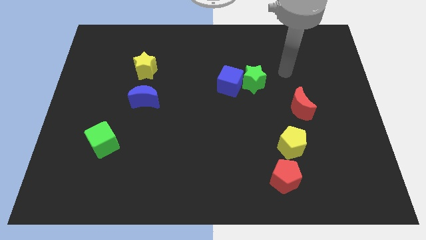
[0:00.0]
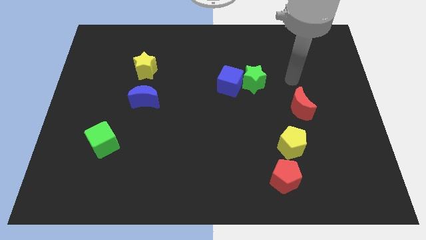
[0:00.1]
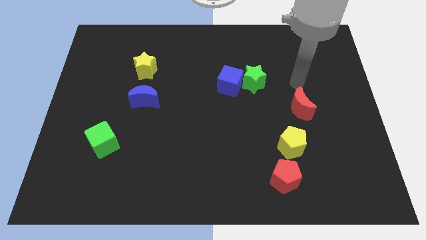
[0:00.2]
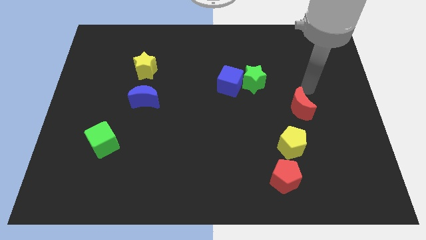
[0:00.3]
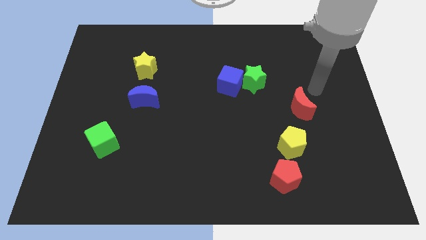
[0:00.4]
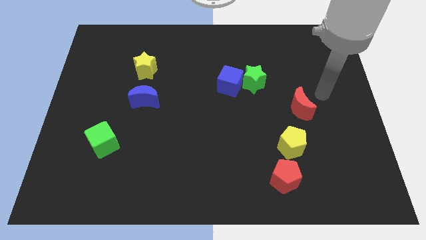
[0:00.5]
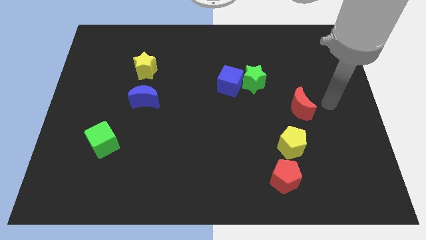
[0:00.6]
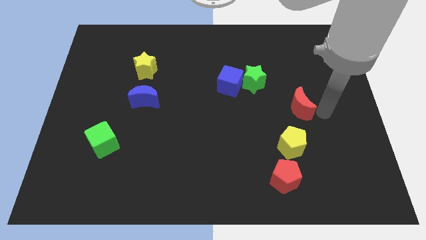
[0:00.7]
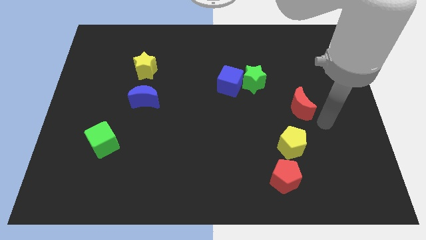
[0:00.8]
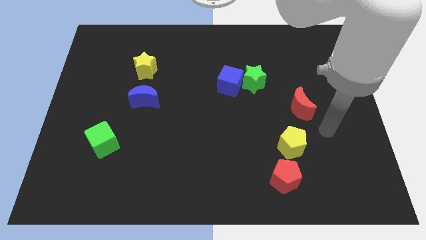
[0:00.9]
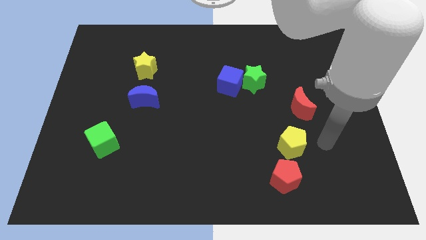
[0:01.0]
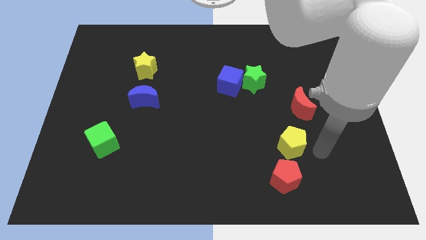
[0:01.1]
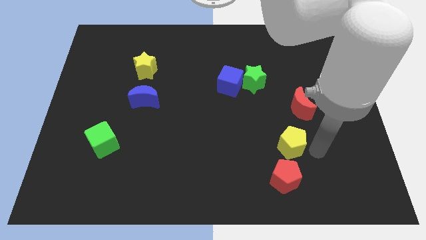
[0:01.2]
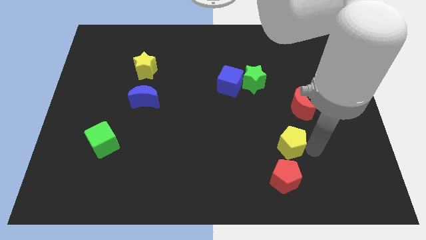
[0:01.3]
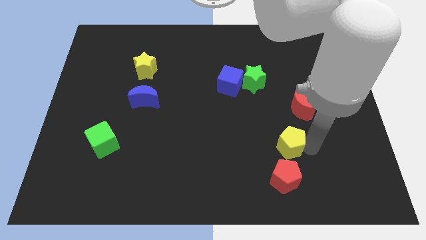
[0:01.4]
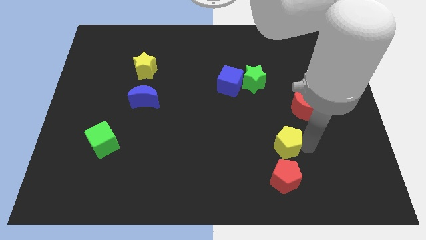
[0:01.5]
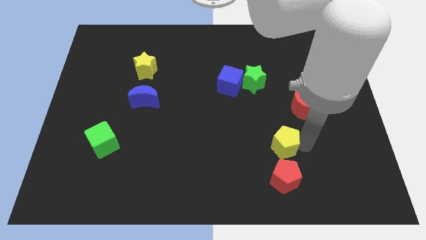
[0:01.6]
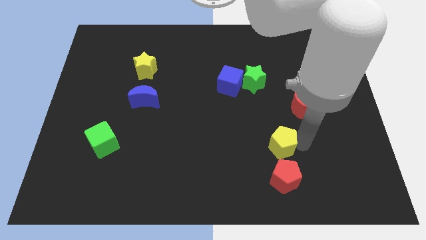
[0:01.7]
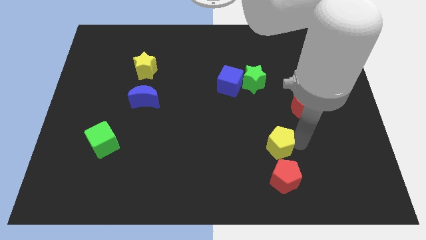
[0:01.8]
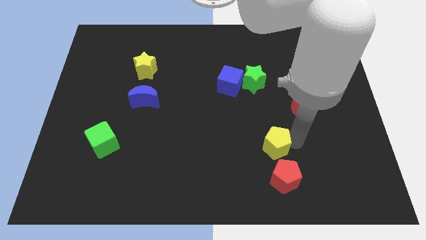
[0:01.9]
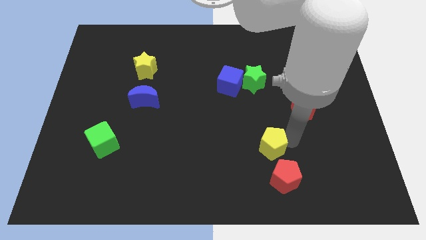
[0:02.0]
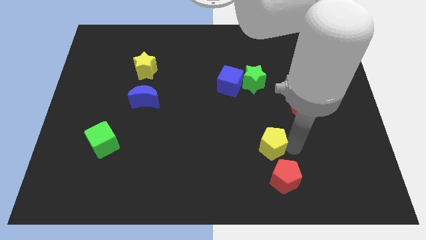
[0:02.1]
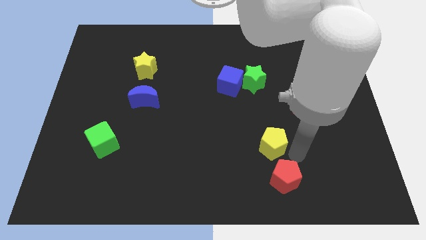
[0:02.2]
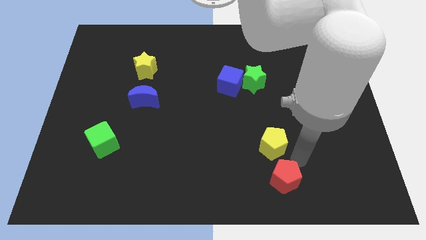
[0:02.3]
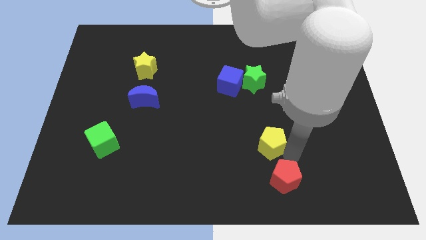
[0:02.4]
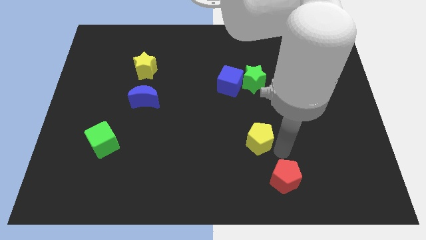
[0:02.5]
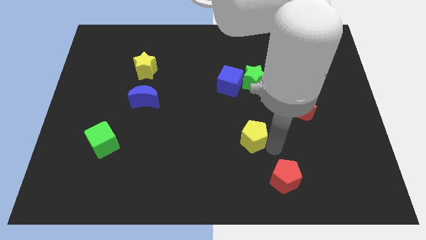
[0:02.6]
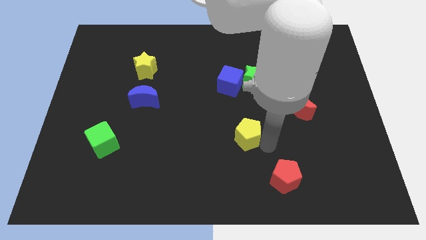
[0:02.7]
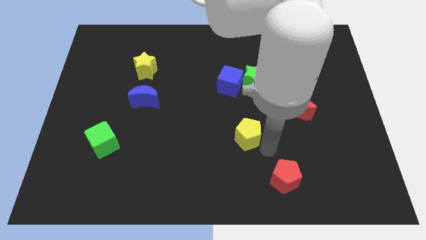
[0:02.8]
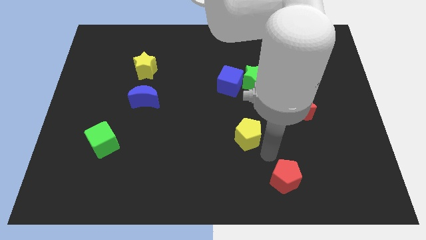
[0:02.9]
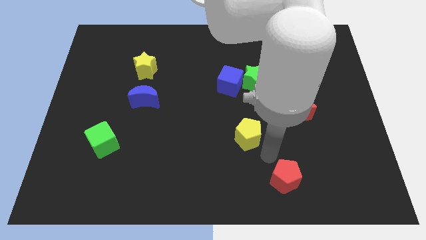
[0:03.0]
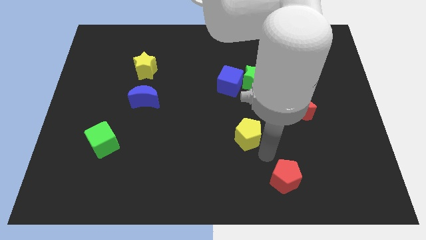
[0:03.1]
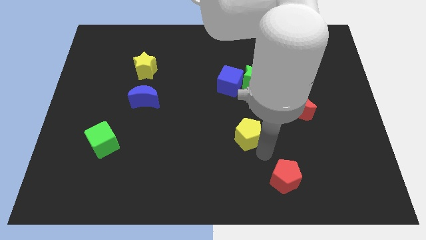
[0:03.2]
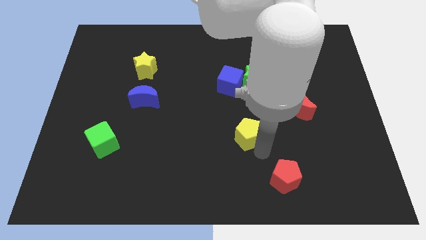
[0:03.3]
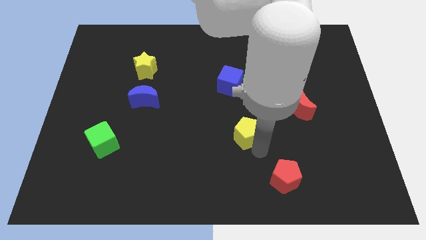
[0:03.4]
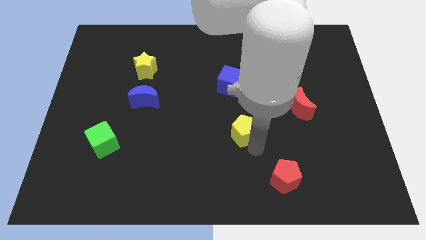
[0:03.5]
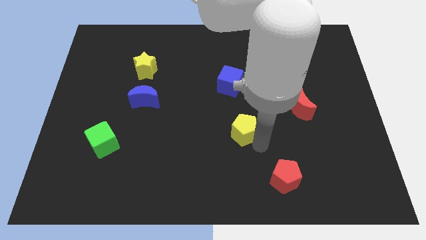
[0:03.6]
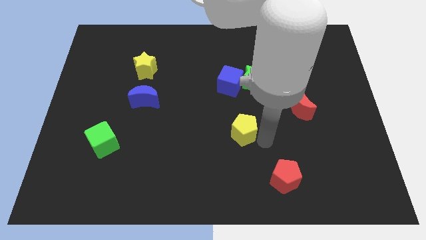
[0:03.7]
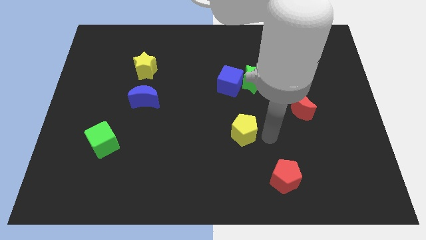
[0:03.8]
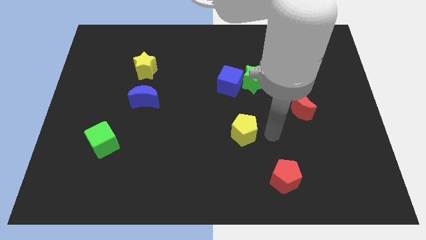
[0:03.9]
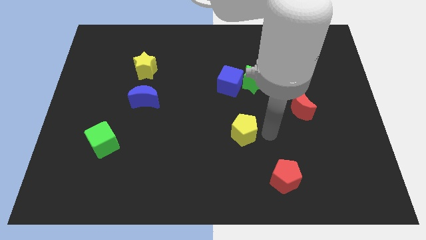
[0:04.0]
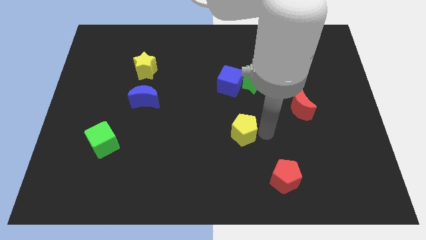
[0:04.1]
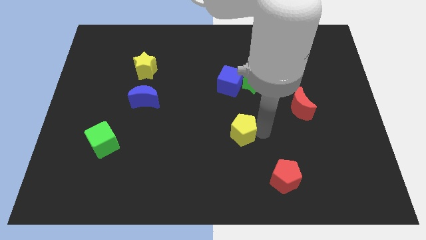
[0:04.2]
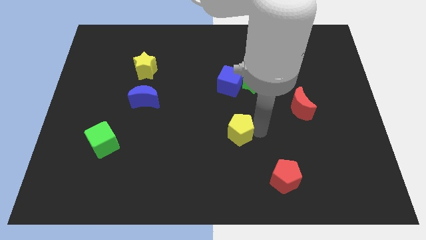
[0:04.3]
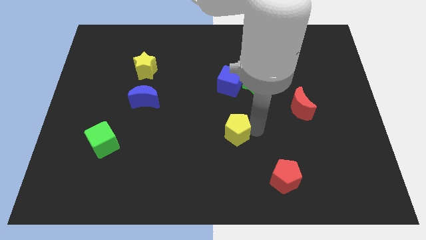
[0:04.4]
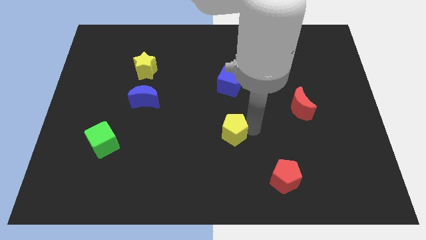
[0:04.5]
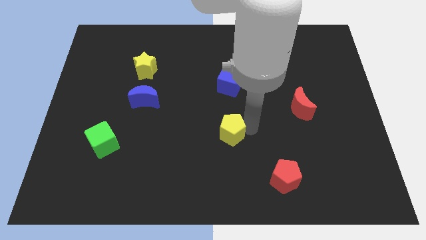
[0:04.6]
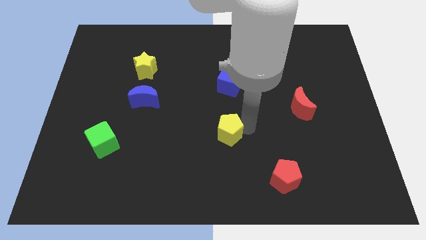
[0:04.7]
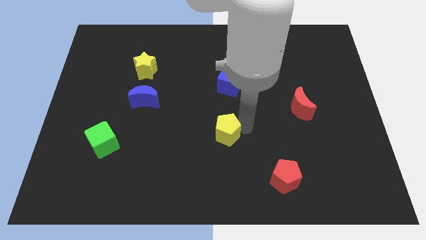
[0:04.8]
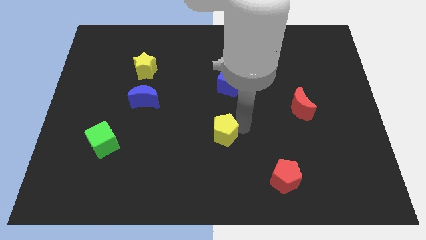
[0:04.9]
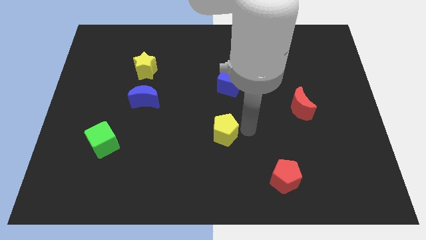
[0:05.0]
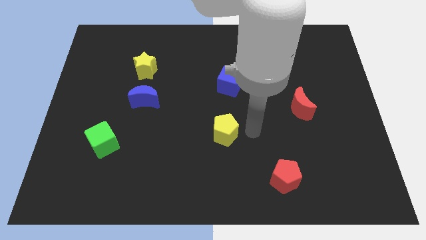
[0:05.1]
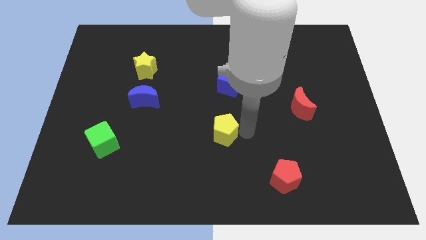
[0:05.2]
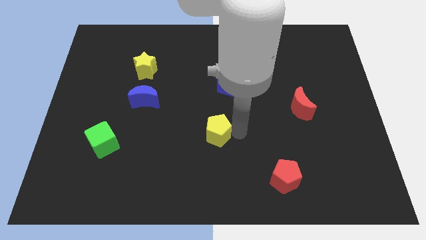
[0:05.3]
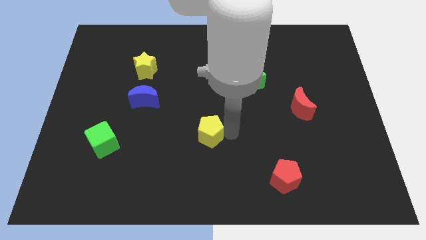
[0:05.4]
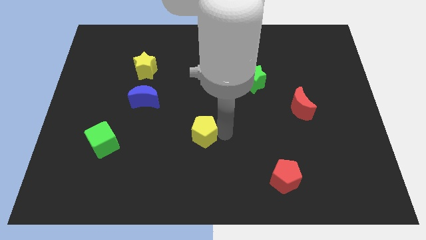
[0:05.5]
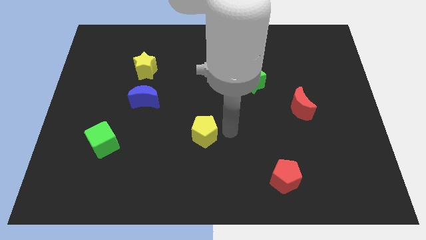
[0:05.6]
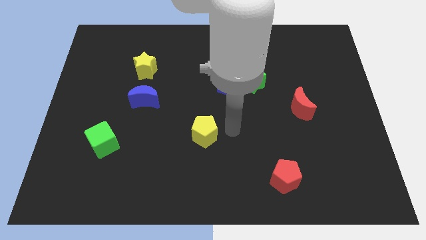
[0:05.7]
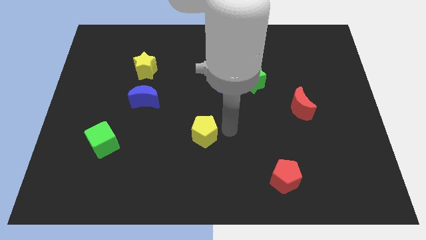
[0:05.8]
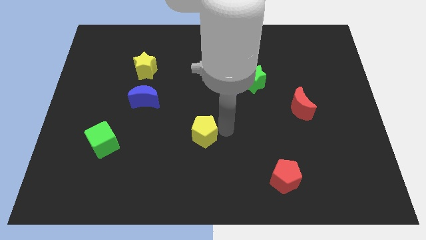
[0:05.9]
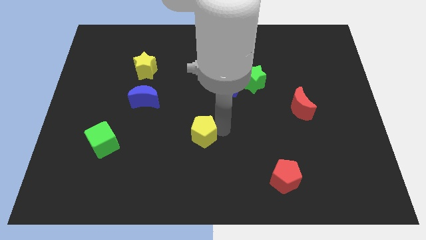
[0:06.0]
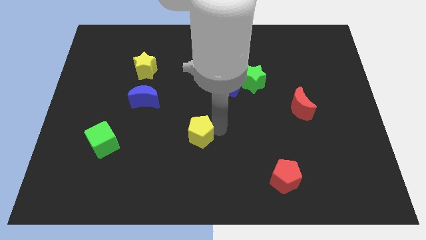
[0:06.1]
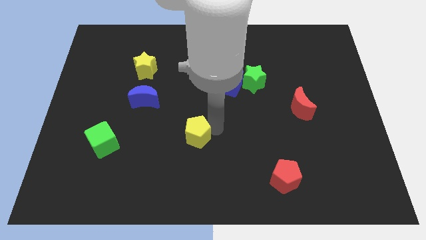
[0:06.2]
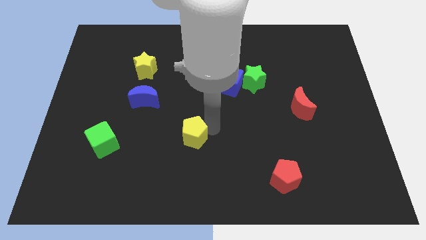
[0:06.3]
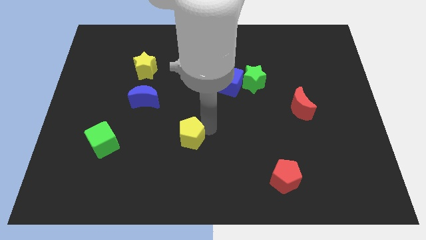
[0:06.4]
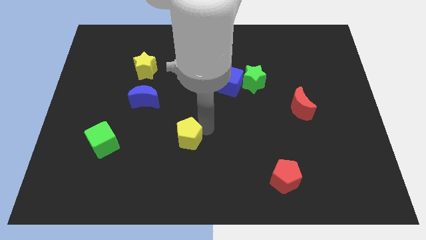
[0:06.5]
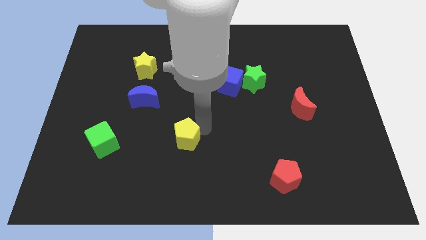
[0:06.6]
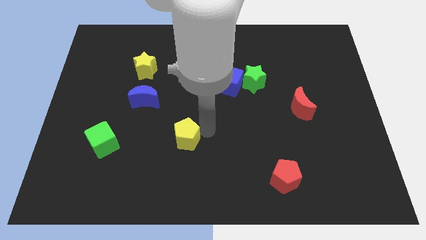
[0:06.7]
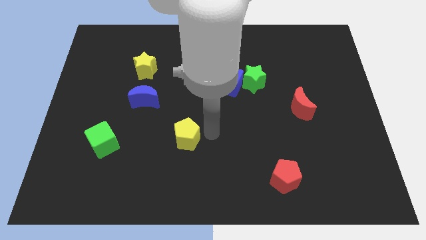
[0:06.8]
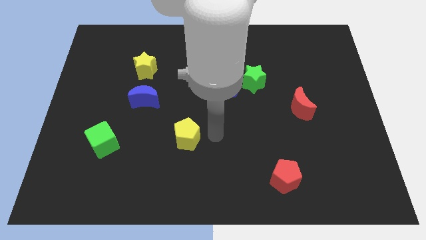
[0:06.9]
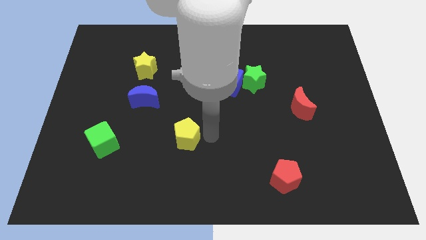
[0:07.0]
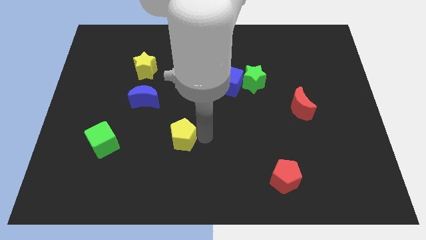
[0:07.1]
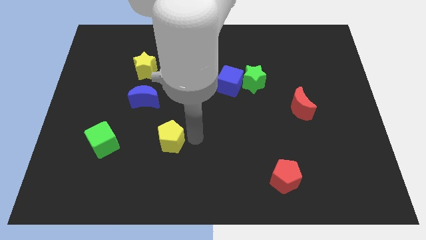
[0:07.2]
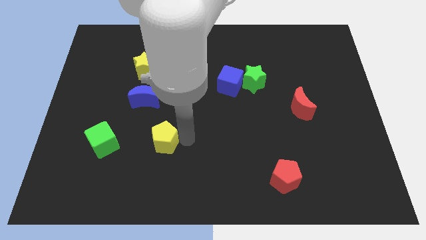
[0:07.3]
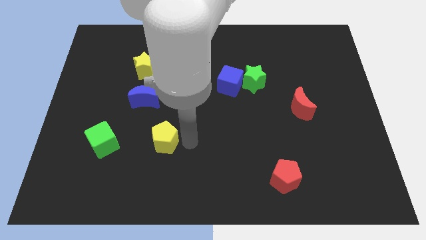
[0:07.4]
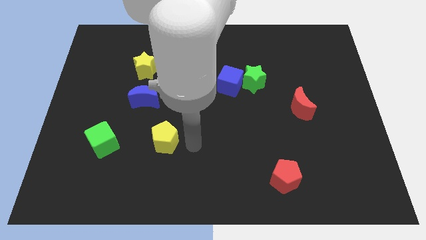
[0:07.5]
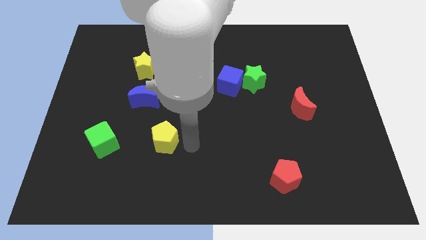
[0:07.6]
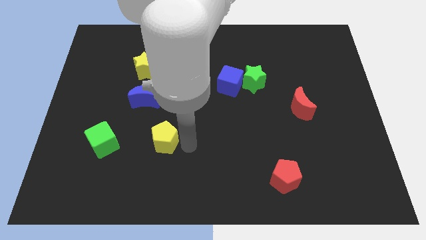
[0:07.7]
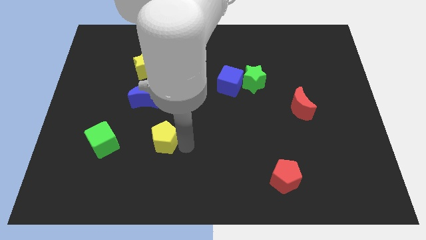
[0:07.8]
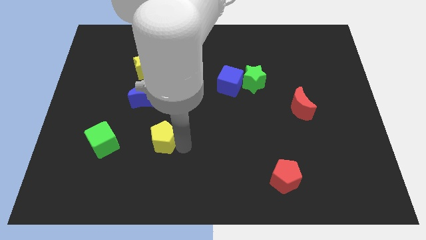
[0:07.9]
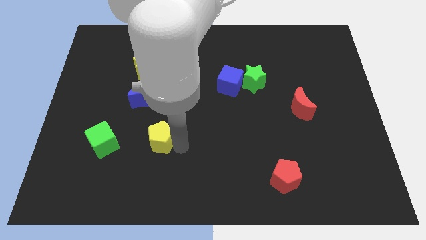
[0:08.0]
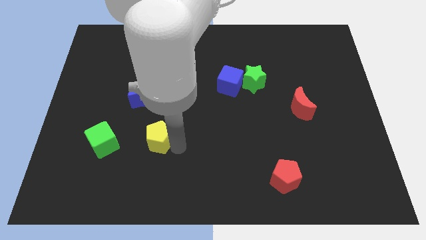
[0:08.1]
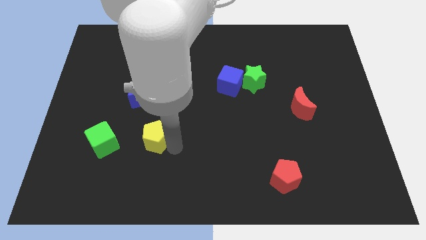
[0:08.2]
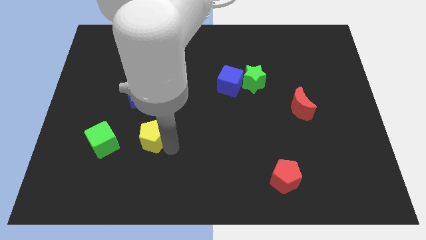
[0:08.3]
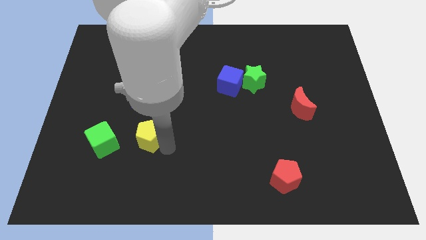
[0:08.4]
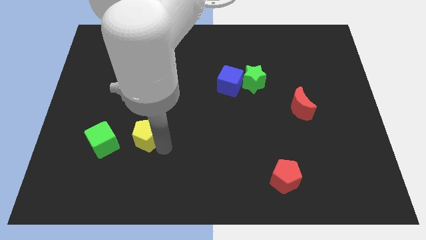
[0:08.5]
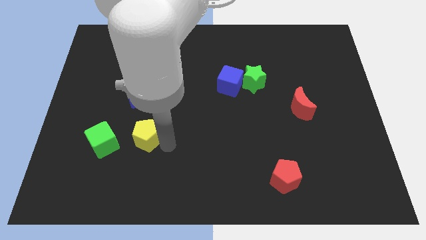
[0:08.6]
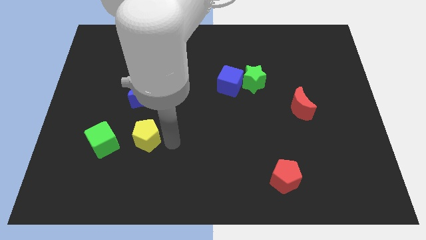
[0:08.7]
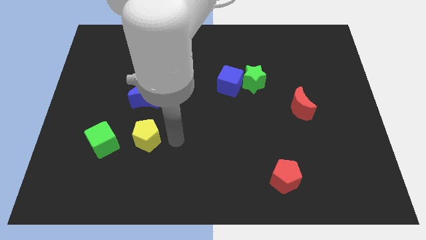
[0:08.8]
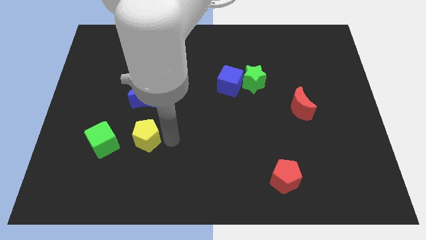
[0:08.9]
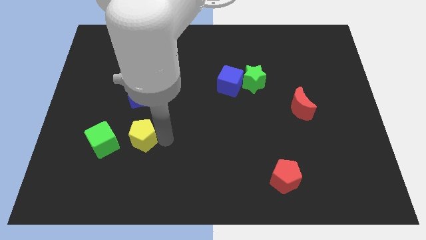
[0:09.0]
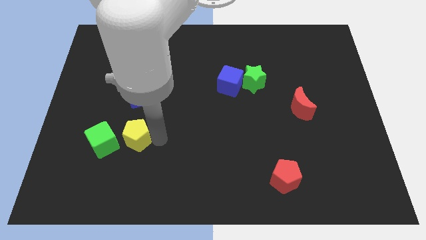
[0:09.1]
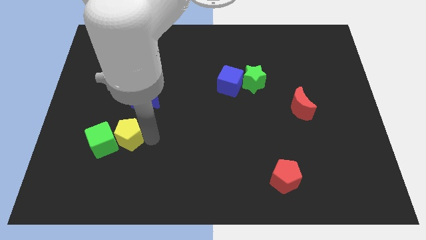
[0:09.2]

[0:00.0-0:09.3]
slide the yellow pentagon towards the green cube
